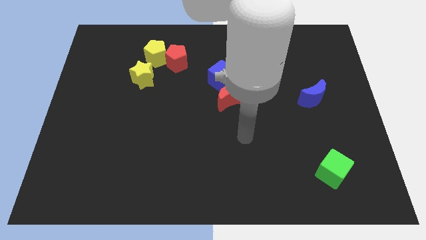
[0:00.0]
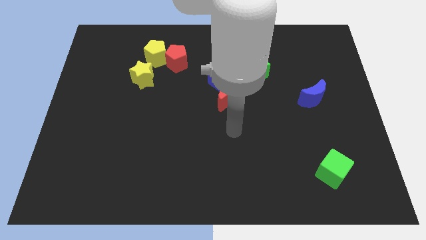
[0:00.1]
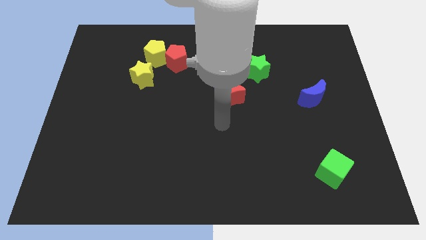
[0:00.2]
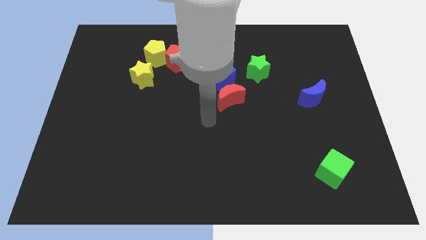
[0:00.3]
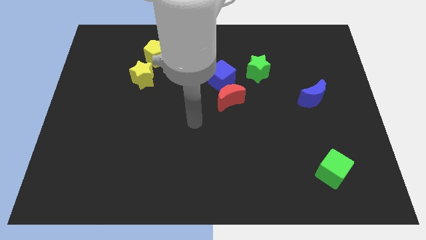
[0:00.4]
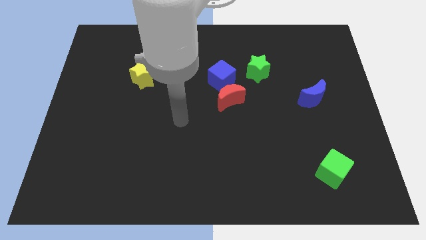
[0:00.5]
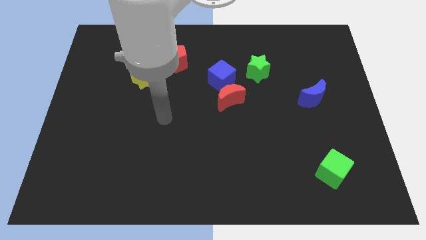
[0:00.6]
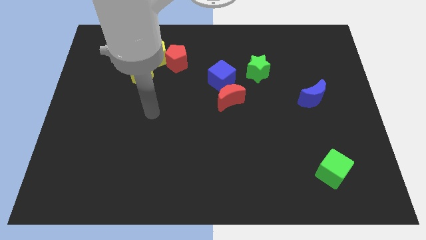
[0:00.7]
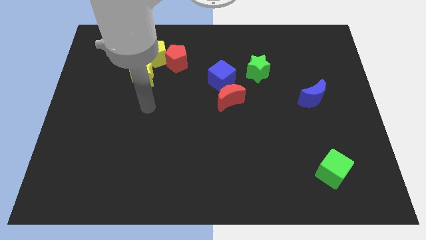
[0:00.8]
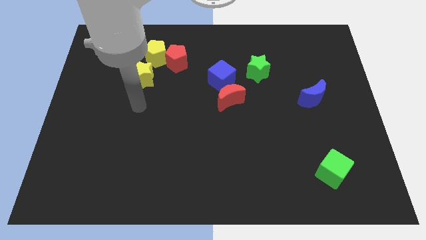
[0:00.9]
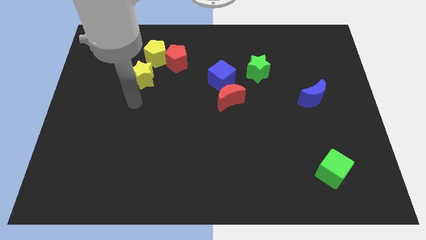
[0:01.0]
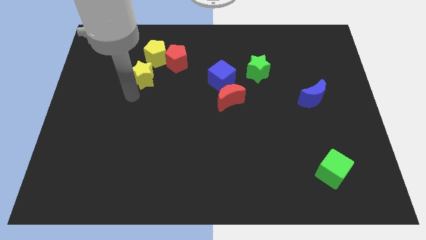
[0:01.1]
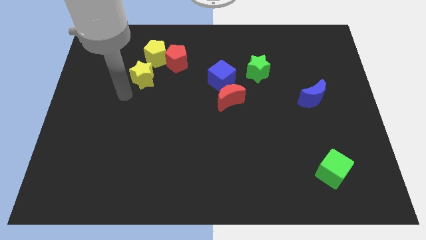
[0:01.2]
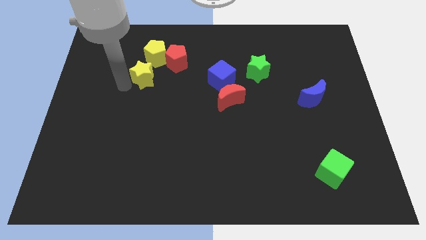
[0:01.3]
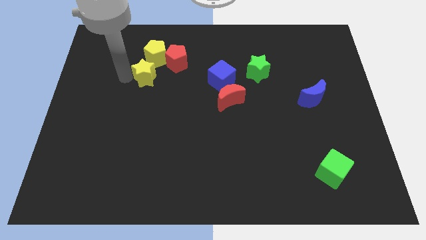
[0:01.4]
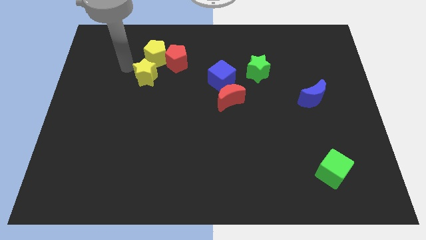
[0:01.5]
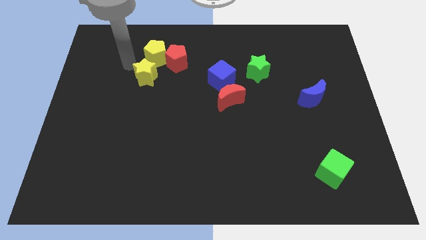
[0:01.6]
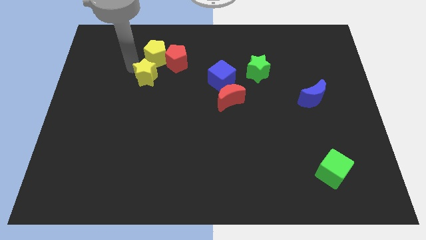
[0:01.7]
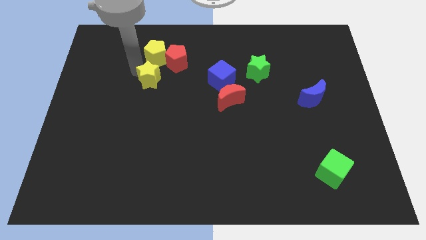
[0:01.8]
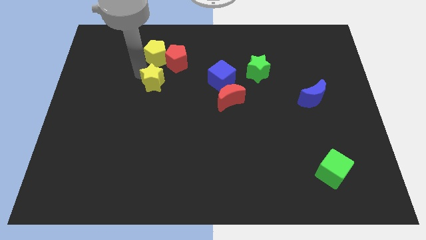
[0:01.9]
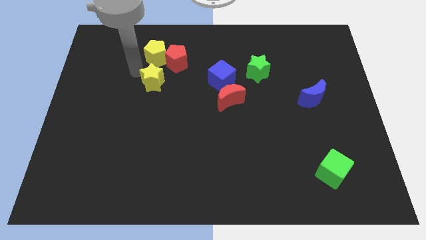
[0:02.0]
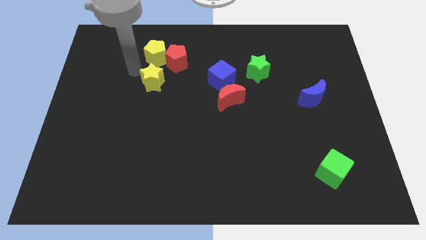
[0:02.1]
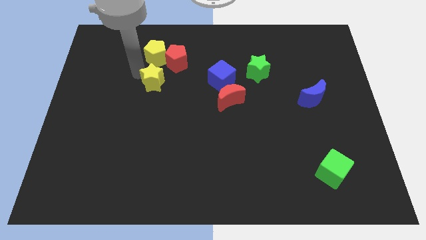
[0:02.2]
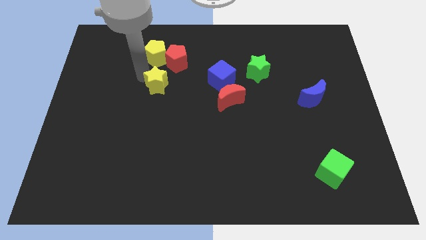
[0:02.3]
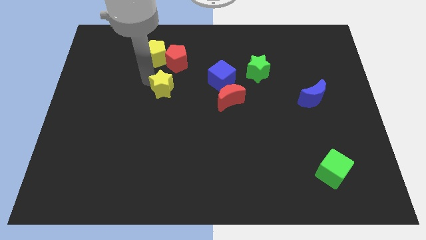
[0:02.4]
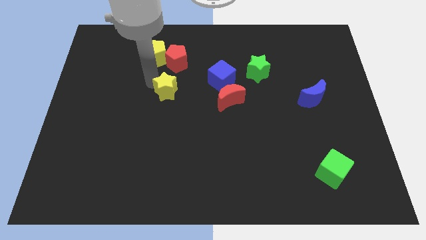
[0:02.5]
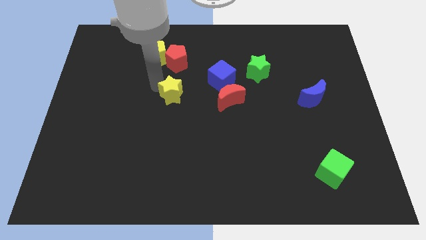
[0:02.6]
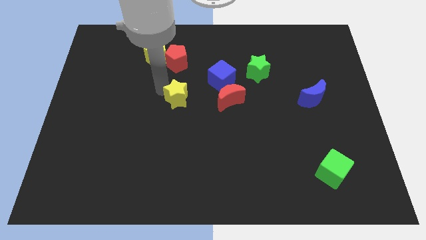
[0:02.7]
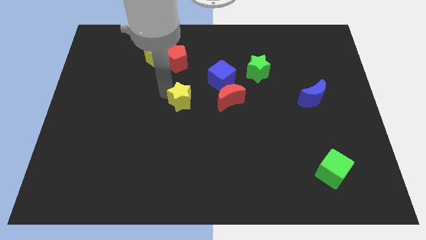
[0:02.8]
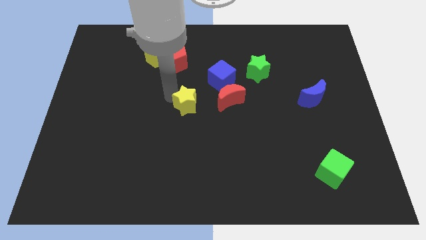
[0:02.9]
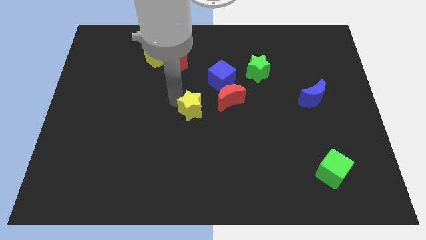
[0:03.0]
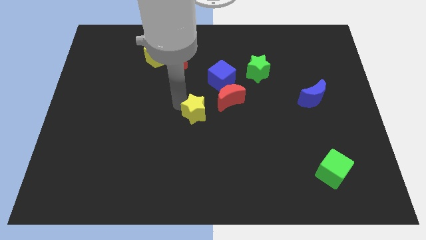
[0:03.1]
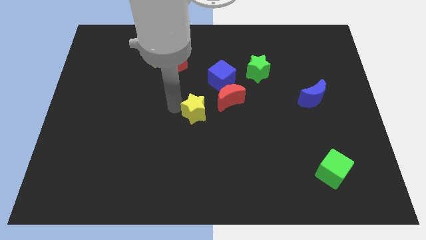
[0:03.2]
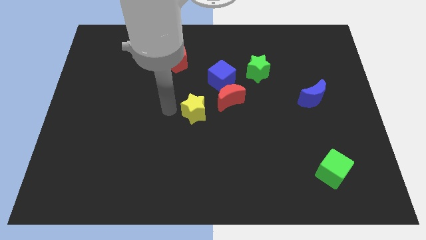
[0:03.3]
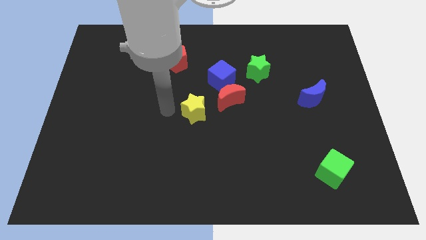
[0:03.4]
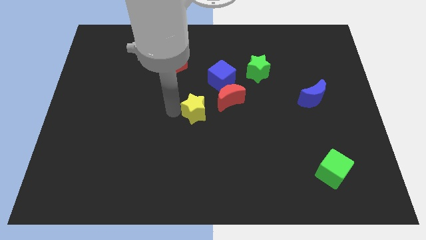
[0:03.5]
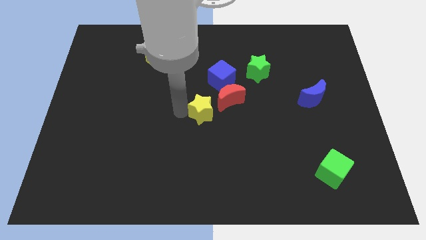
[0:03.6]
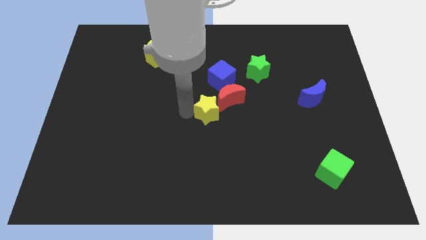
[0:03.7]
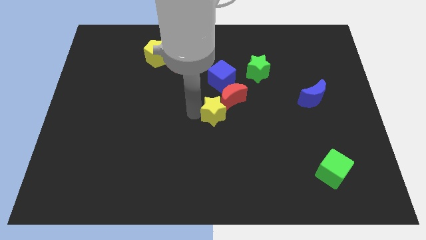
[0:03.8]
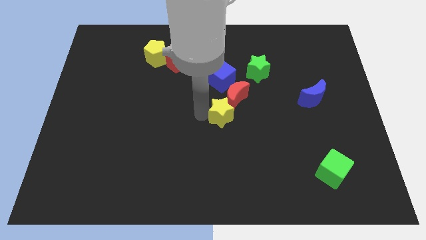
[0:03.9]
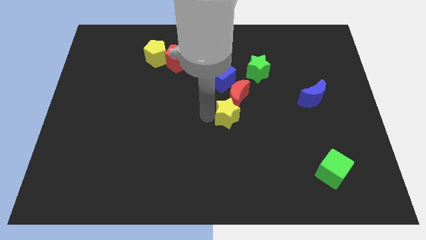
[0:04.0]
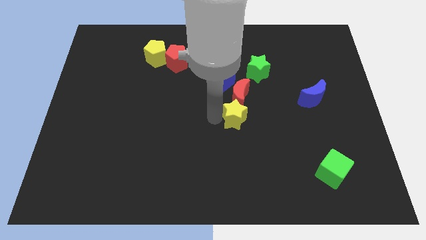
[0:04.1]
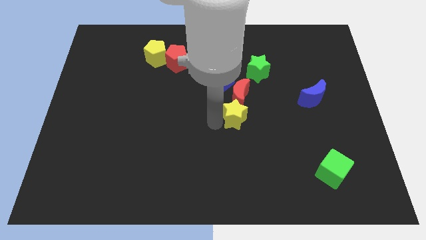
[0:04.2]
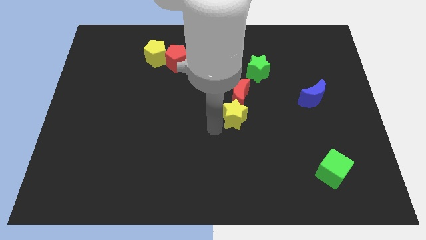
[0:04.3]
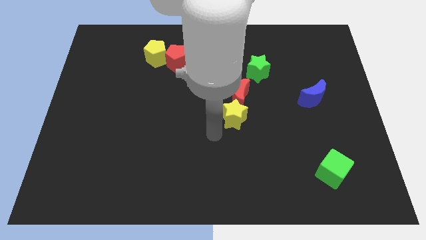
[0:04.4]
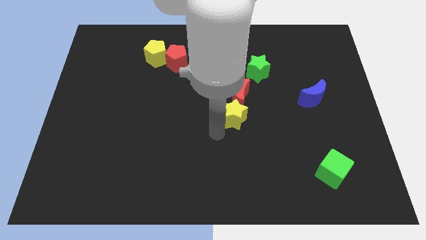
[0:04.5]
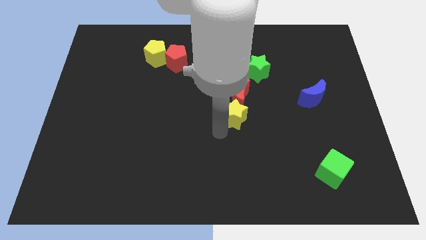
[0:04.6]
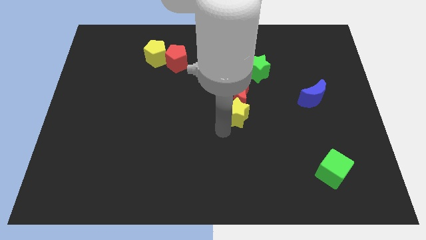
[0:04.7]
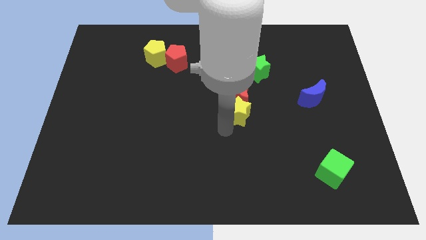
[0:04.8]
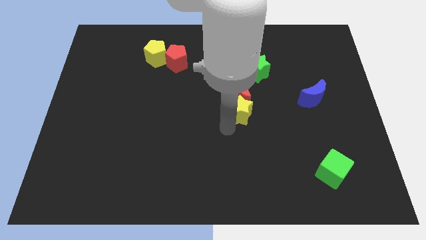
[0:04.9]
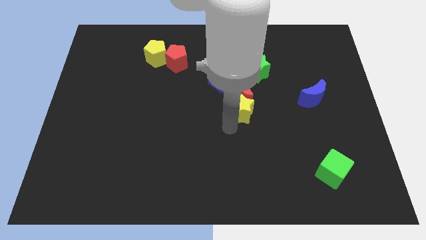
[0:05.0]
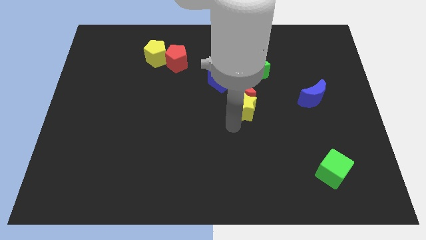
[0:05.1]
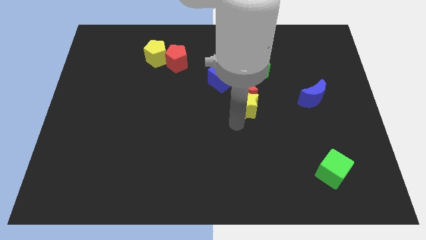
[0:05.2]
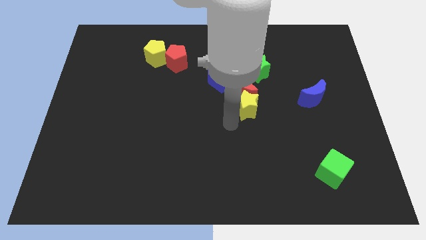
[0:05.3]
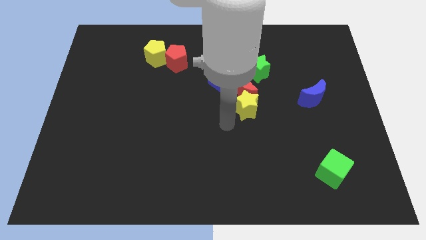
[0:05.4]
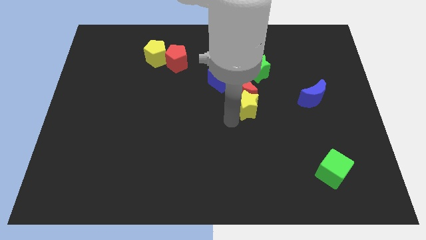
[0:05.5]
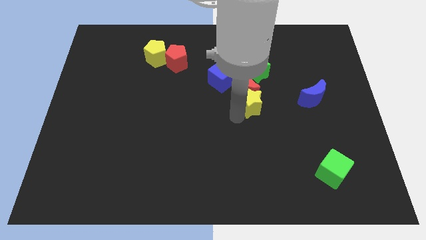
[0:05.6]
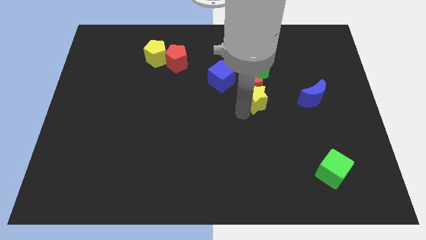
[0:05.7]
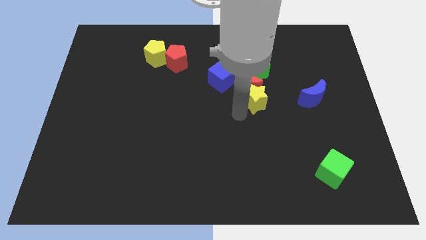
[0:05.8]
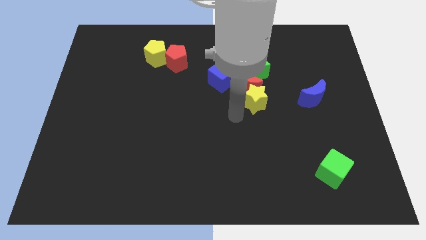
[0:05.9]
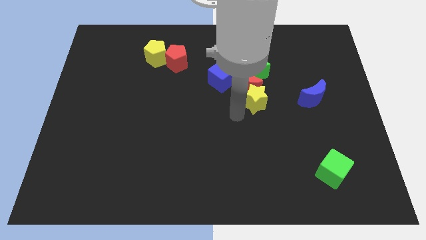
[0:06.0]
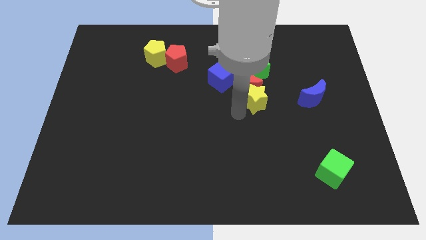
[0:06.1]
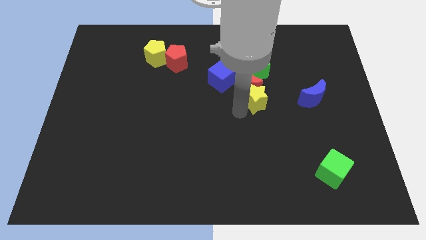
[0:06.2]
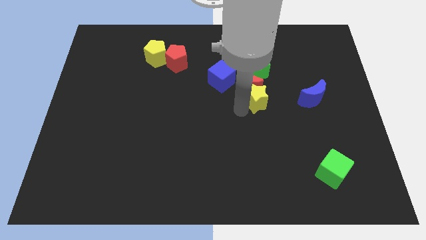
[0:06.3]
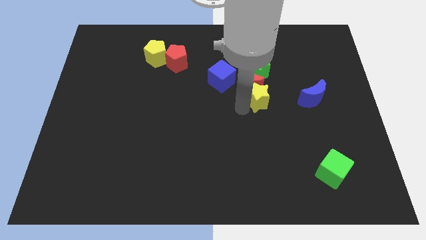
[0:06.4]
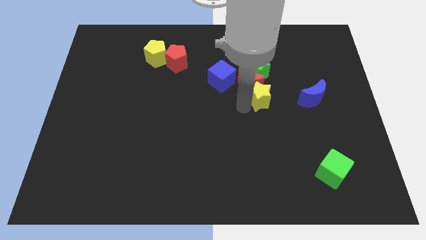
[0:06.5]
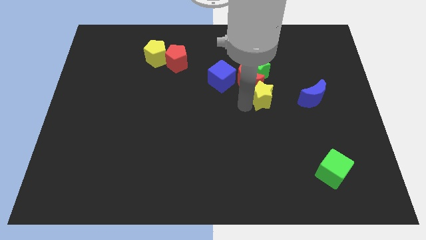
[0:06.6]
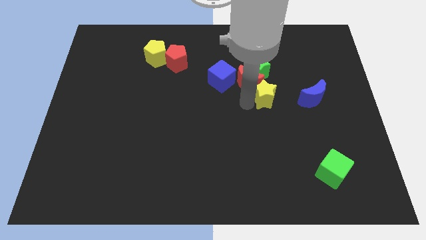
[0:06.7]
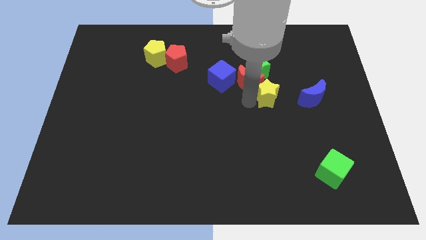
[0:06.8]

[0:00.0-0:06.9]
slide the yellow star diagonally down and to the right of the green star

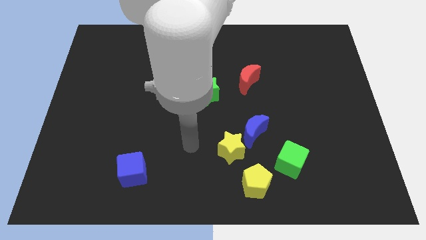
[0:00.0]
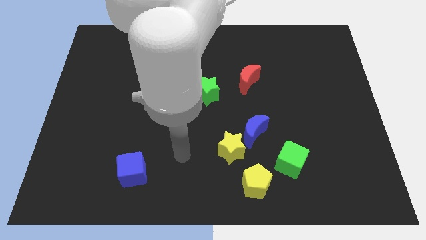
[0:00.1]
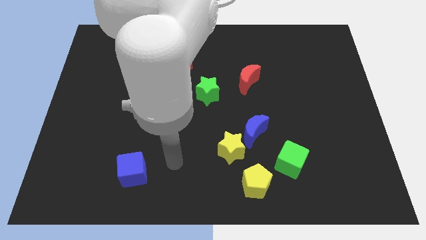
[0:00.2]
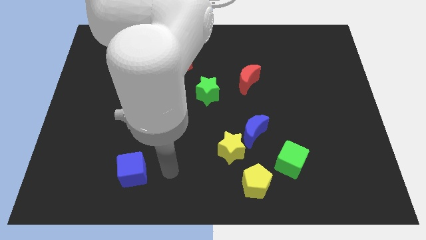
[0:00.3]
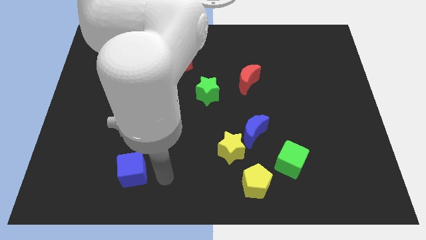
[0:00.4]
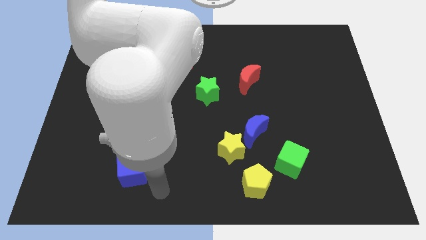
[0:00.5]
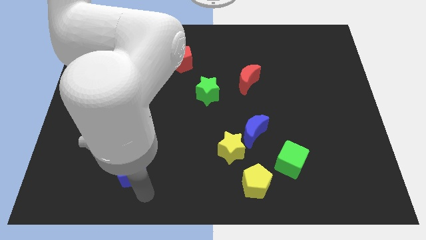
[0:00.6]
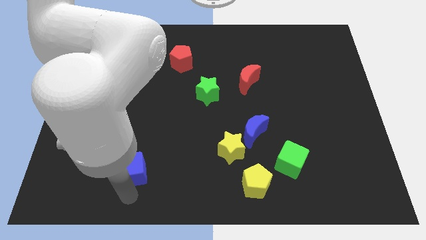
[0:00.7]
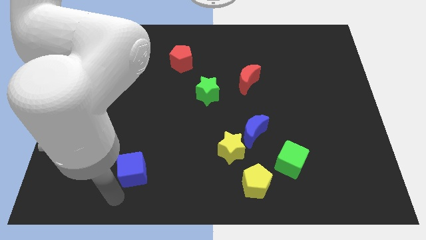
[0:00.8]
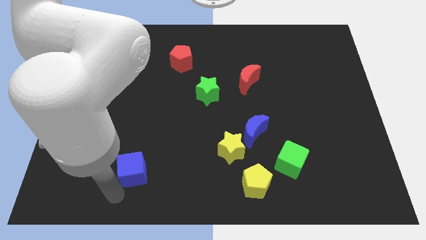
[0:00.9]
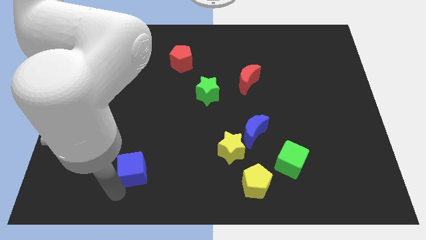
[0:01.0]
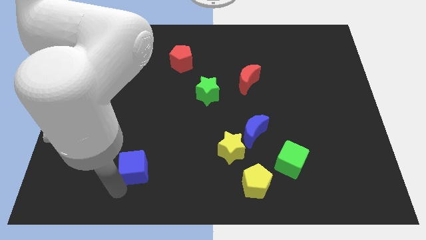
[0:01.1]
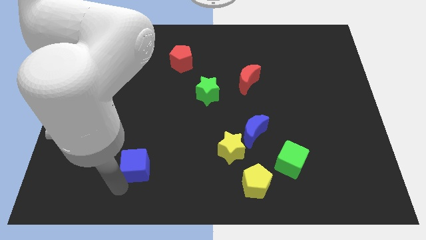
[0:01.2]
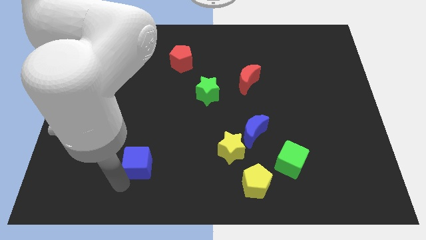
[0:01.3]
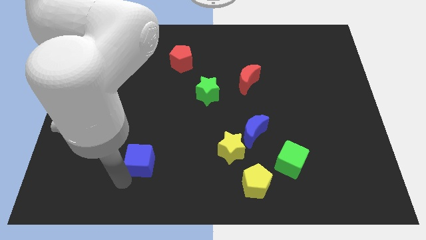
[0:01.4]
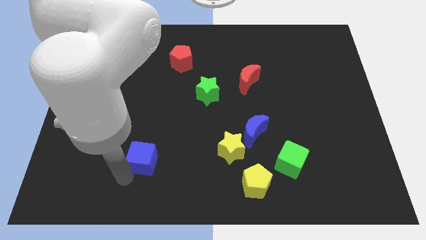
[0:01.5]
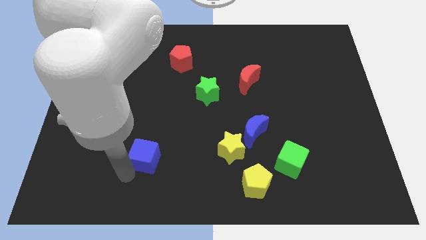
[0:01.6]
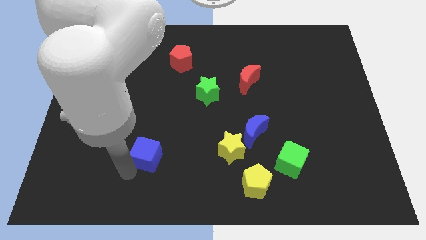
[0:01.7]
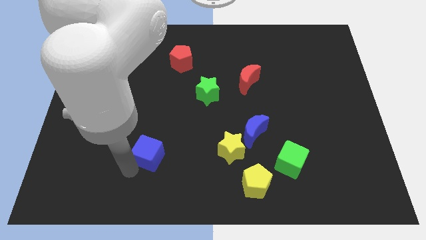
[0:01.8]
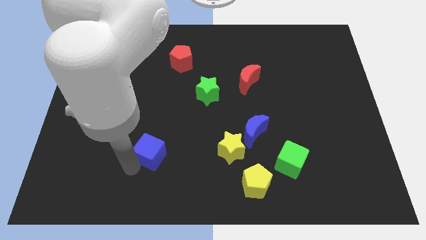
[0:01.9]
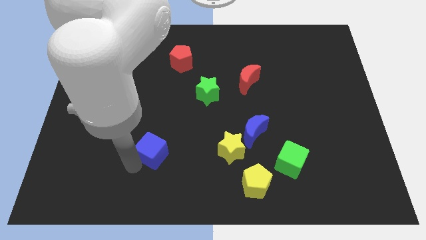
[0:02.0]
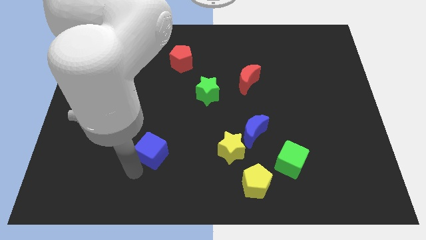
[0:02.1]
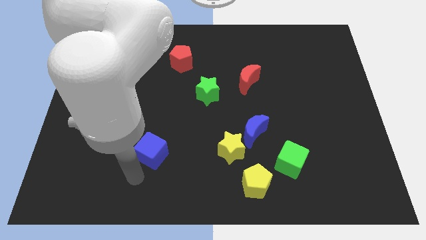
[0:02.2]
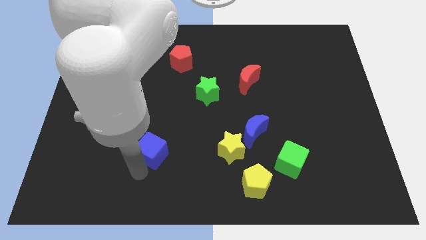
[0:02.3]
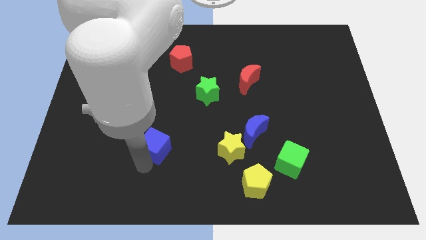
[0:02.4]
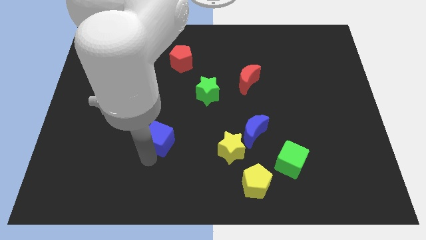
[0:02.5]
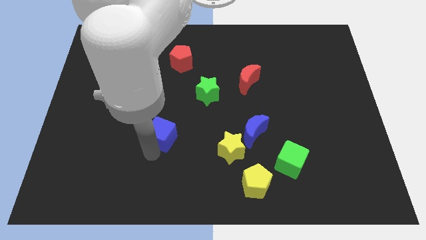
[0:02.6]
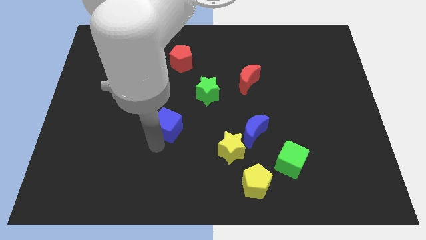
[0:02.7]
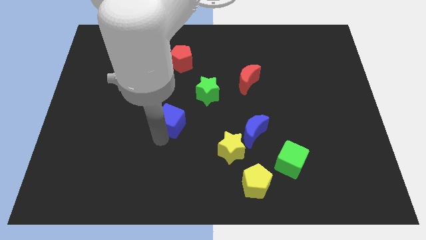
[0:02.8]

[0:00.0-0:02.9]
push the blue cube to the bottom left of the green star
